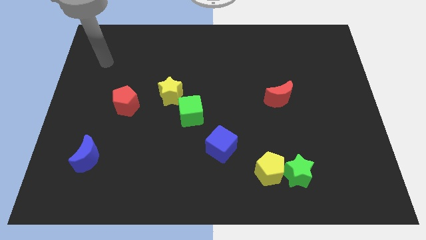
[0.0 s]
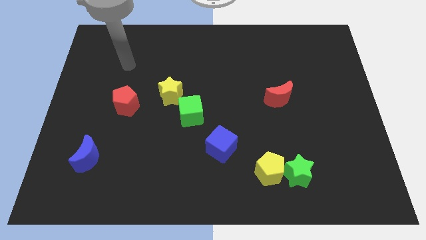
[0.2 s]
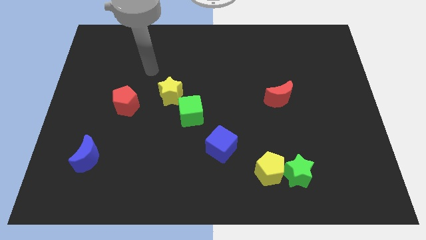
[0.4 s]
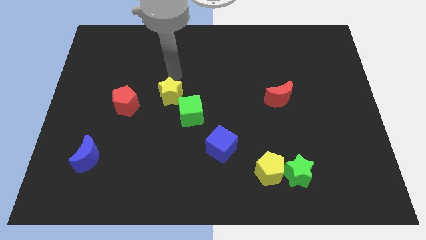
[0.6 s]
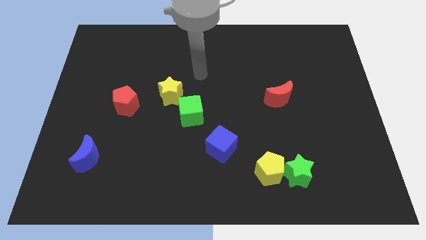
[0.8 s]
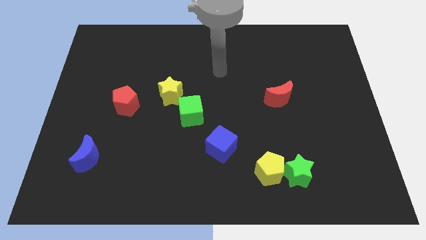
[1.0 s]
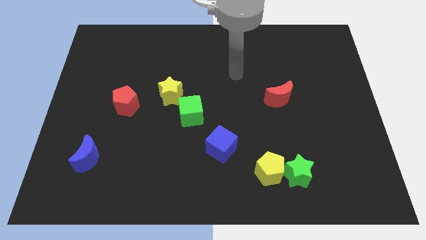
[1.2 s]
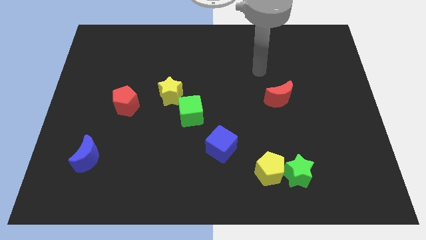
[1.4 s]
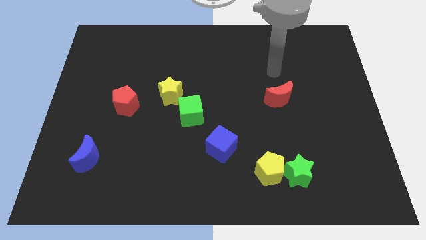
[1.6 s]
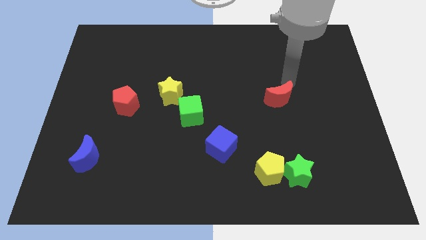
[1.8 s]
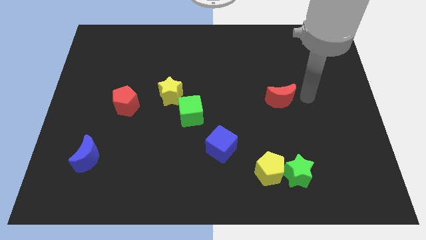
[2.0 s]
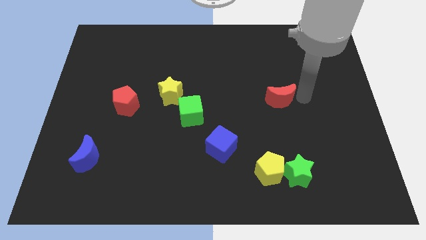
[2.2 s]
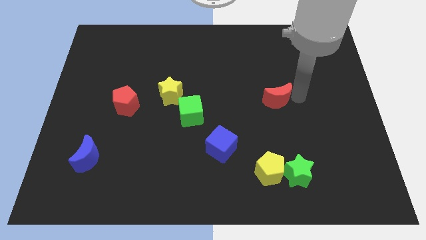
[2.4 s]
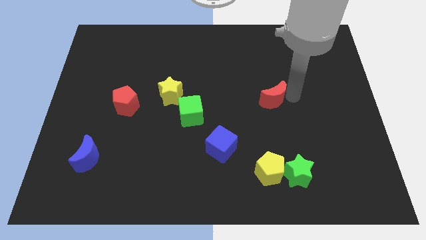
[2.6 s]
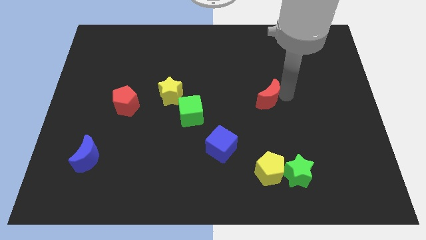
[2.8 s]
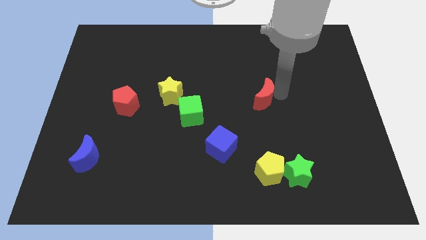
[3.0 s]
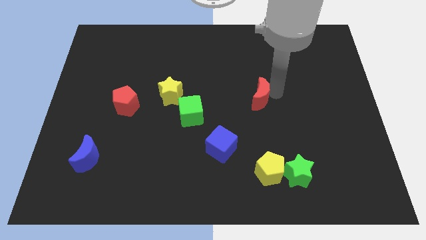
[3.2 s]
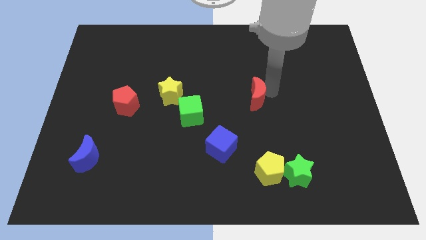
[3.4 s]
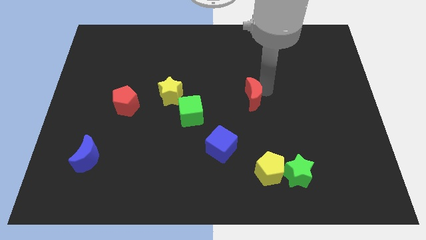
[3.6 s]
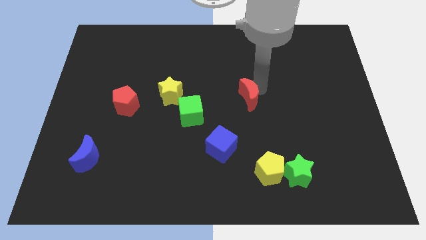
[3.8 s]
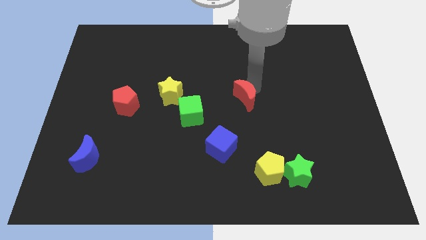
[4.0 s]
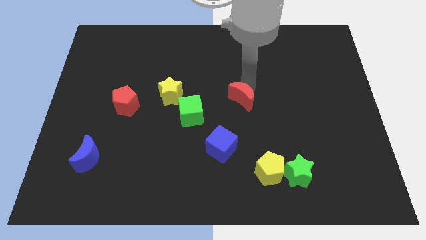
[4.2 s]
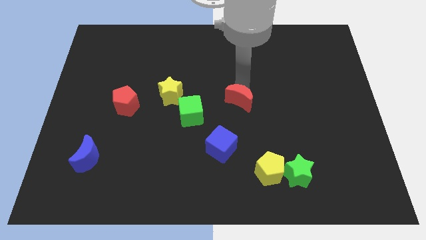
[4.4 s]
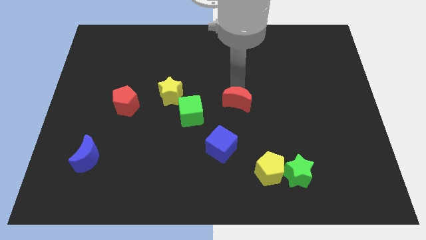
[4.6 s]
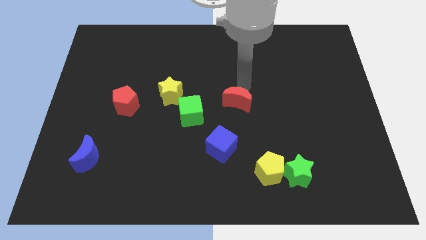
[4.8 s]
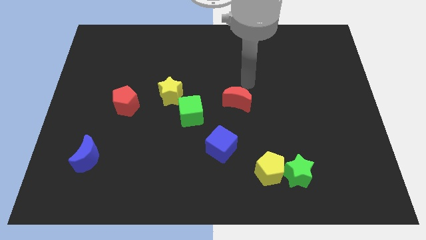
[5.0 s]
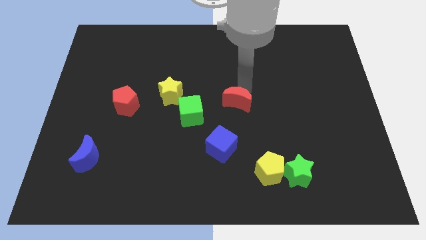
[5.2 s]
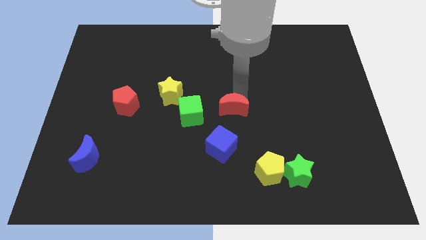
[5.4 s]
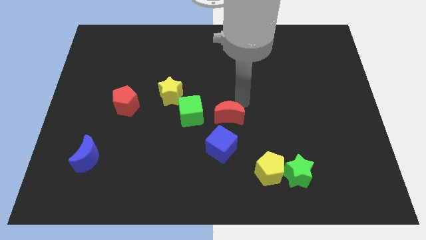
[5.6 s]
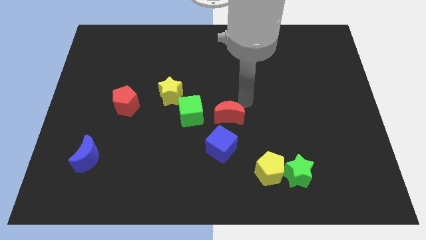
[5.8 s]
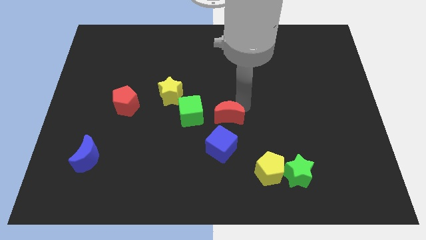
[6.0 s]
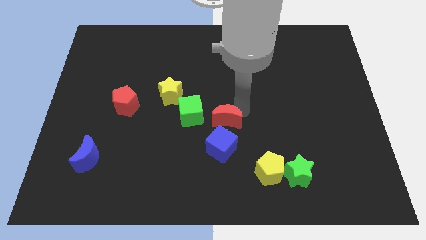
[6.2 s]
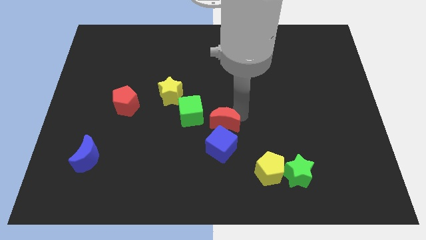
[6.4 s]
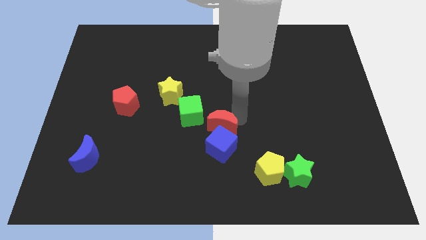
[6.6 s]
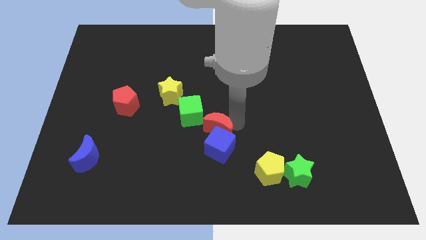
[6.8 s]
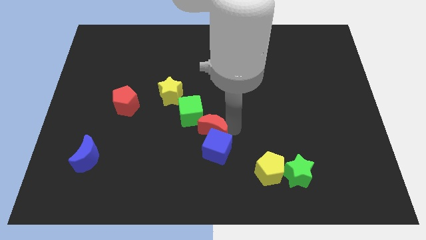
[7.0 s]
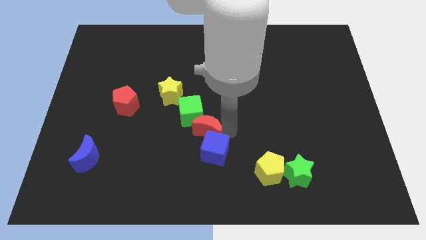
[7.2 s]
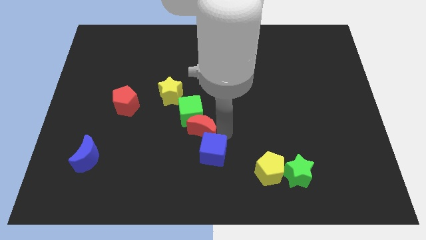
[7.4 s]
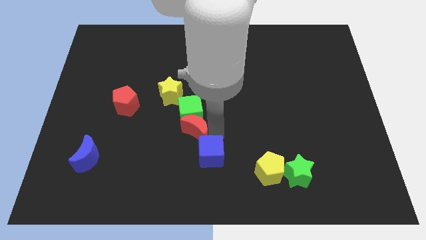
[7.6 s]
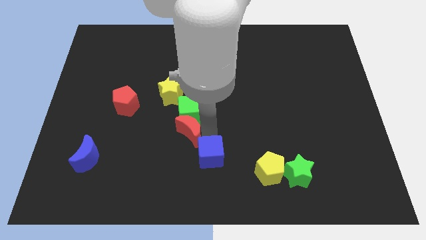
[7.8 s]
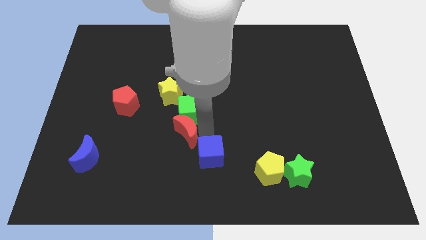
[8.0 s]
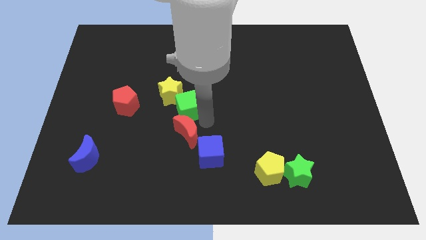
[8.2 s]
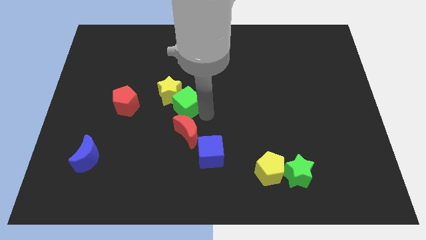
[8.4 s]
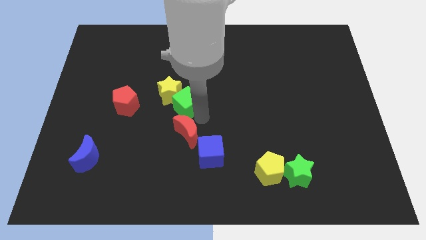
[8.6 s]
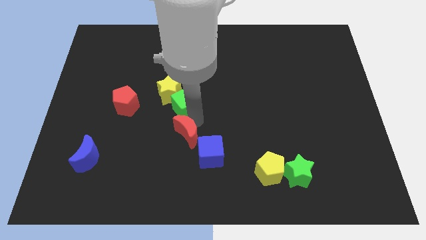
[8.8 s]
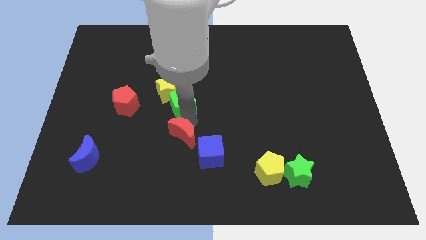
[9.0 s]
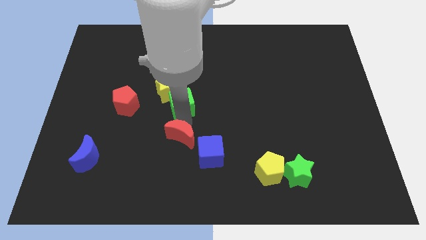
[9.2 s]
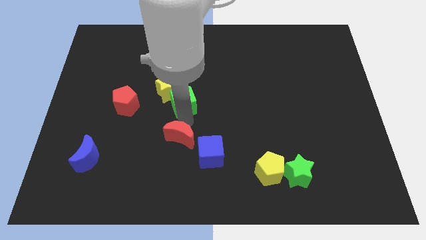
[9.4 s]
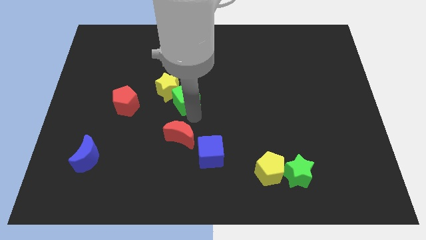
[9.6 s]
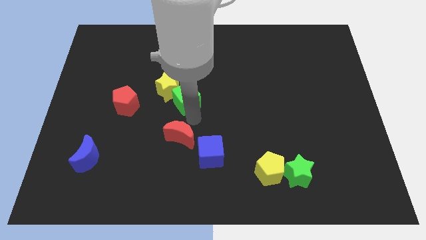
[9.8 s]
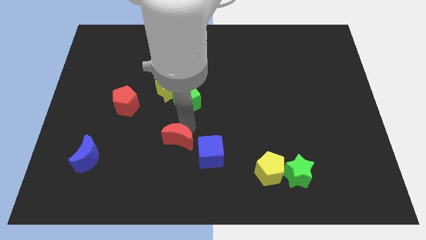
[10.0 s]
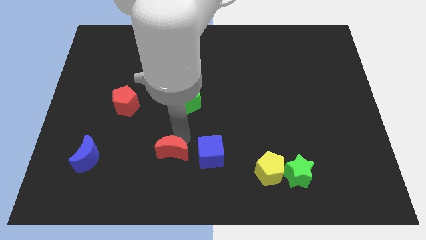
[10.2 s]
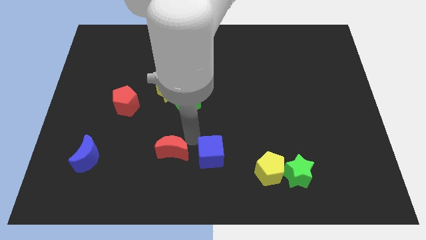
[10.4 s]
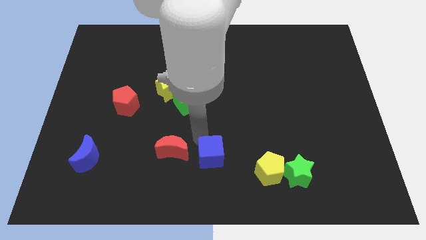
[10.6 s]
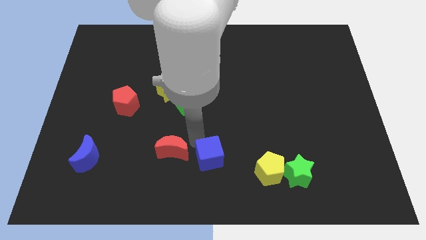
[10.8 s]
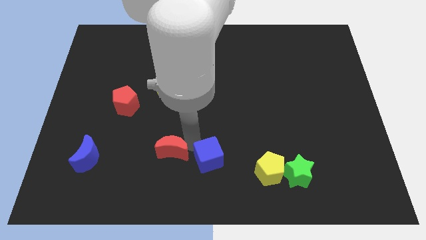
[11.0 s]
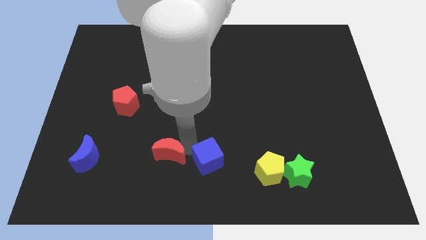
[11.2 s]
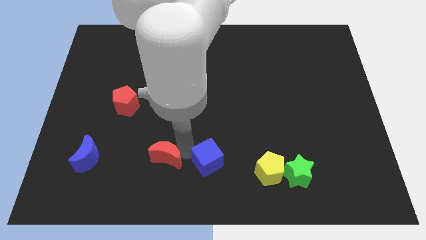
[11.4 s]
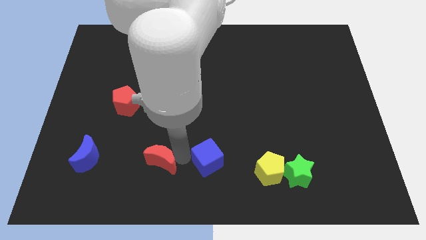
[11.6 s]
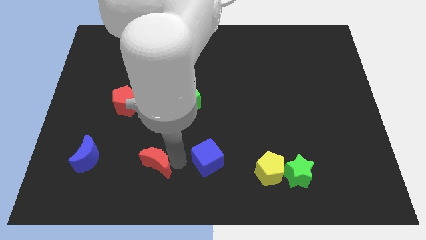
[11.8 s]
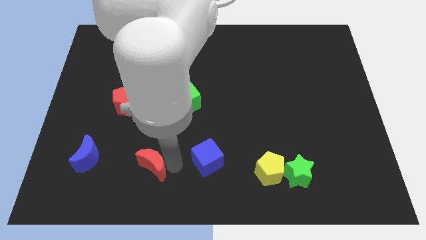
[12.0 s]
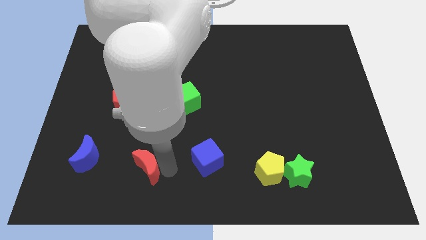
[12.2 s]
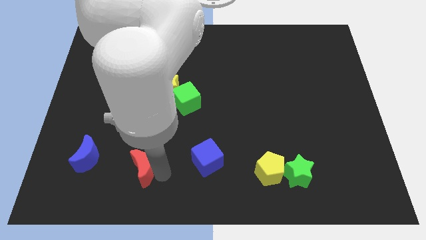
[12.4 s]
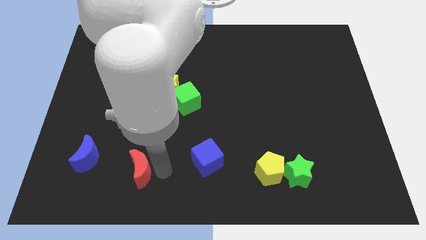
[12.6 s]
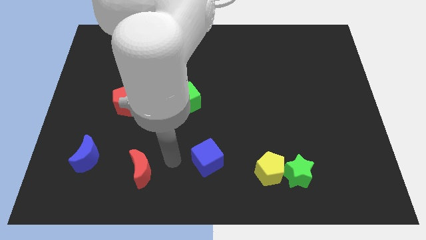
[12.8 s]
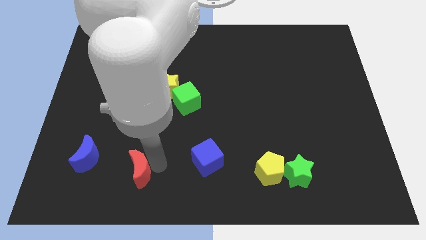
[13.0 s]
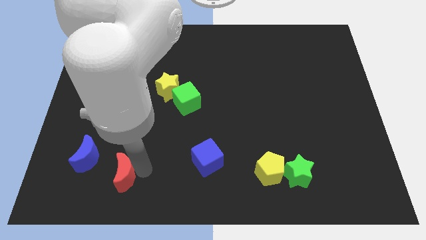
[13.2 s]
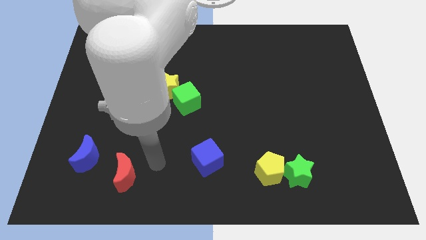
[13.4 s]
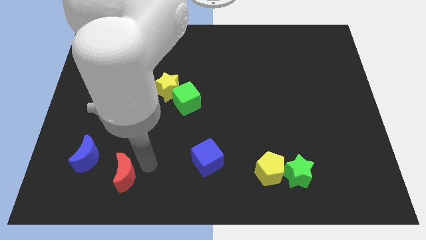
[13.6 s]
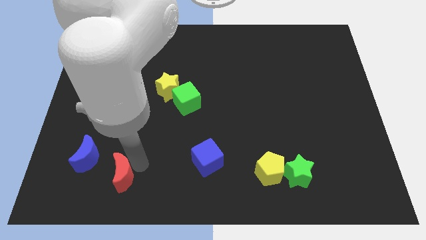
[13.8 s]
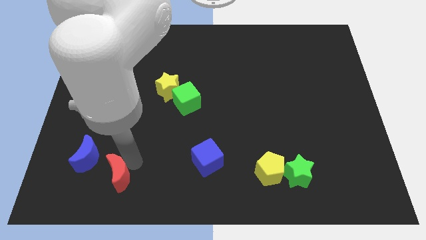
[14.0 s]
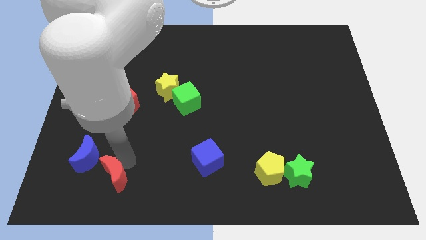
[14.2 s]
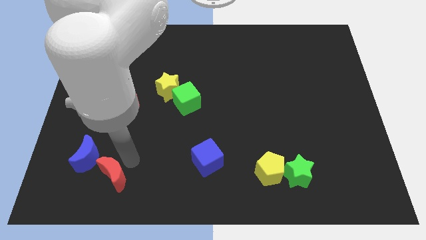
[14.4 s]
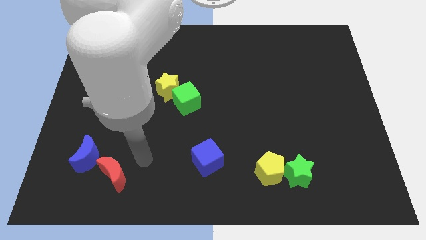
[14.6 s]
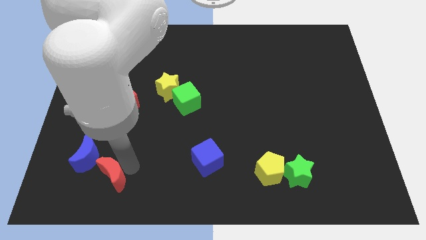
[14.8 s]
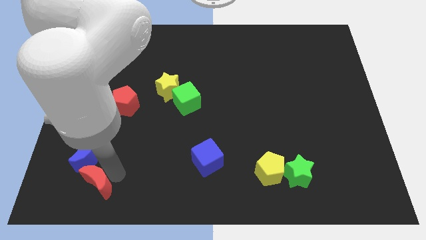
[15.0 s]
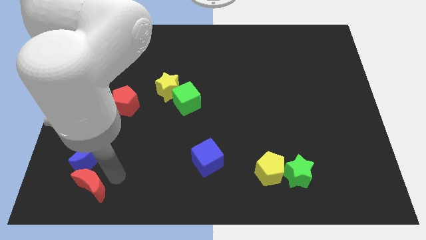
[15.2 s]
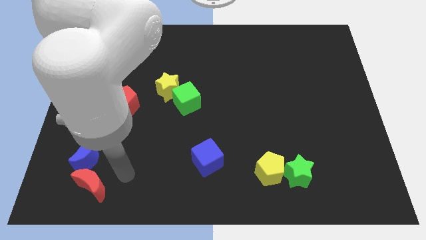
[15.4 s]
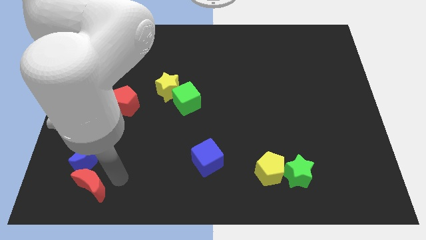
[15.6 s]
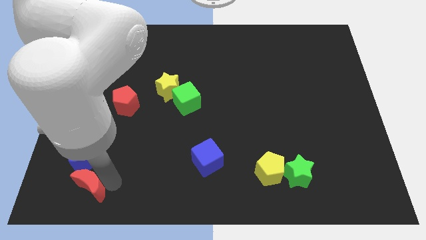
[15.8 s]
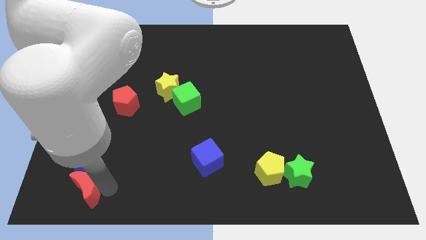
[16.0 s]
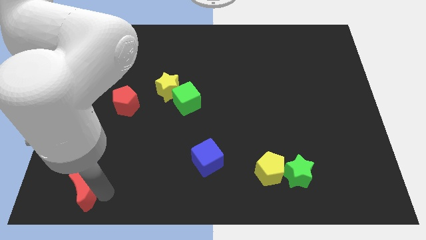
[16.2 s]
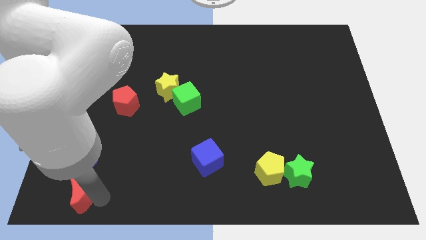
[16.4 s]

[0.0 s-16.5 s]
put the red moon to the bottom left
